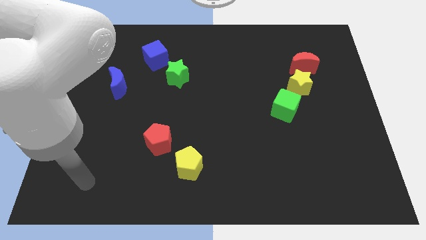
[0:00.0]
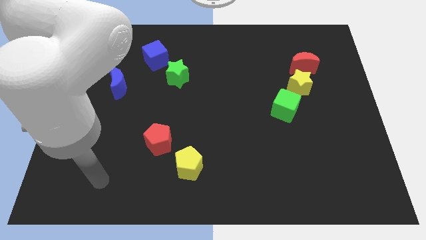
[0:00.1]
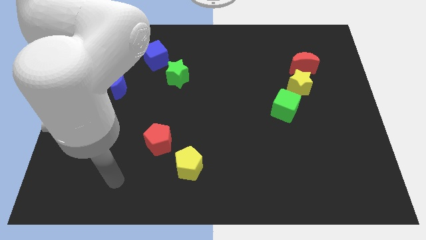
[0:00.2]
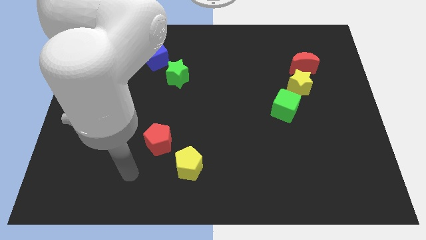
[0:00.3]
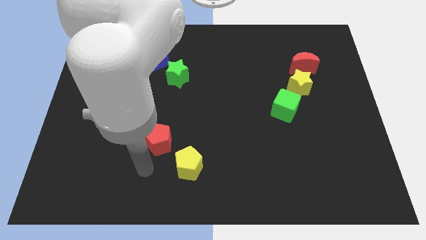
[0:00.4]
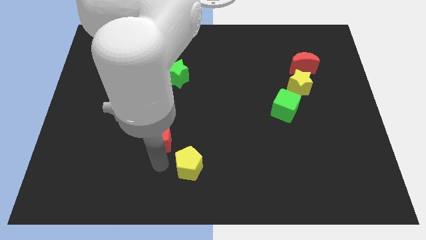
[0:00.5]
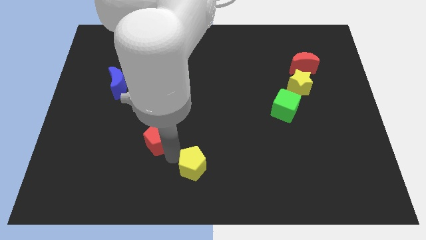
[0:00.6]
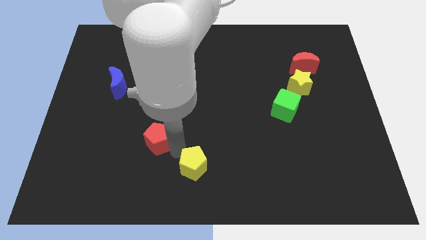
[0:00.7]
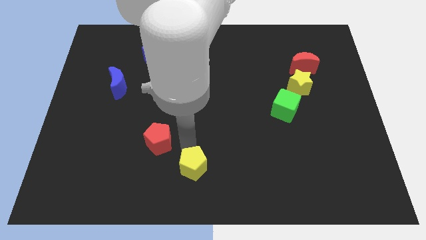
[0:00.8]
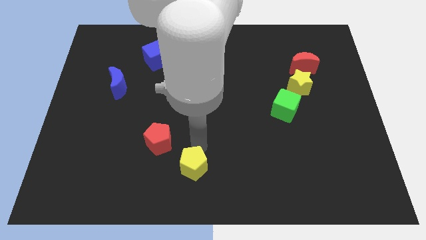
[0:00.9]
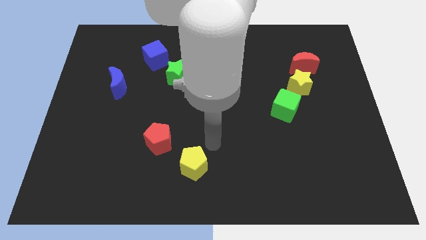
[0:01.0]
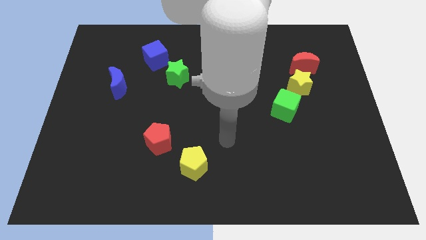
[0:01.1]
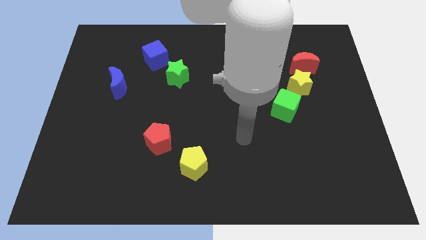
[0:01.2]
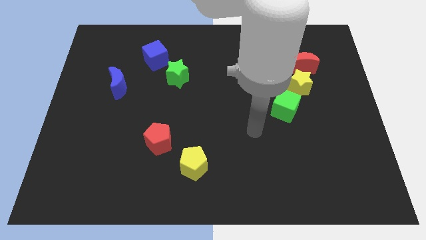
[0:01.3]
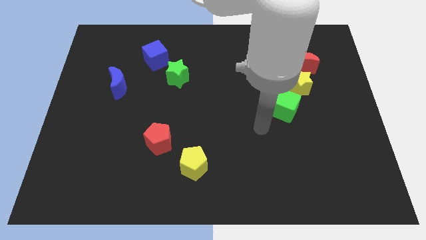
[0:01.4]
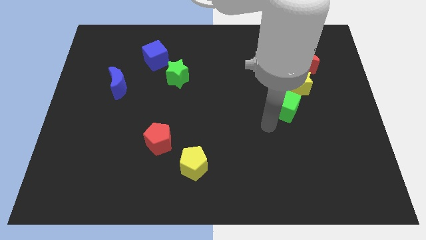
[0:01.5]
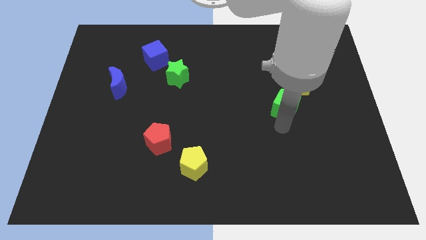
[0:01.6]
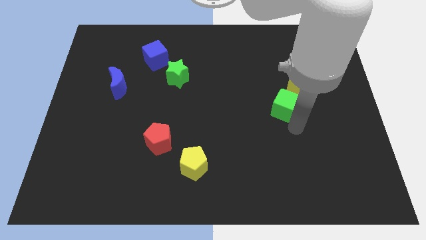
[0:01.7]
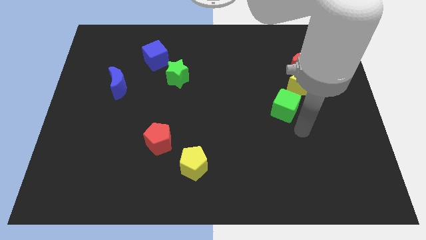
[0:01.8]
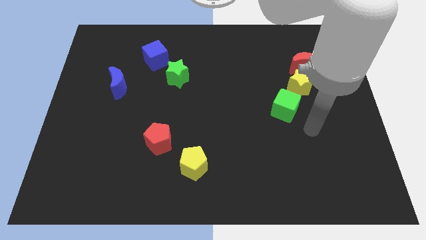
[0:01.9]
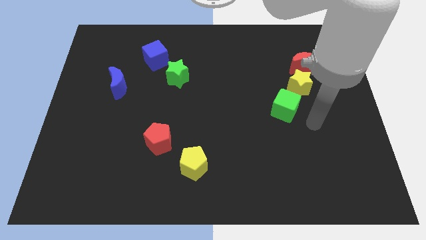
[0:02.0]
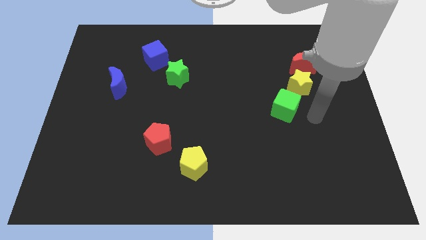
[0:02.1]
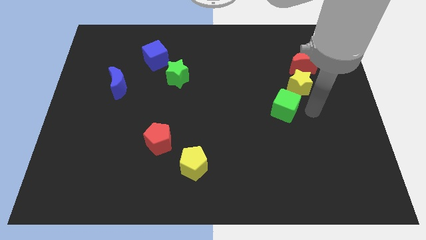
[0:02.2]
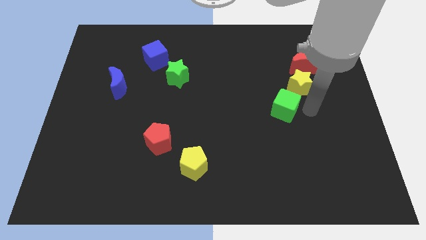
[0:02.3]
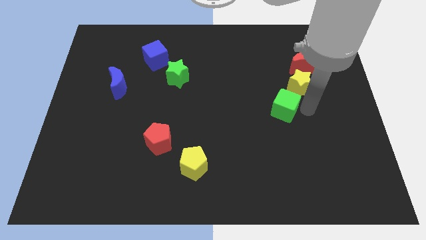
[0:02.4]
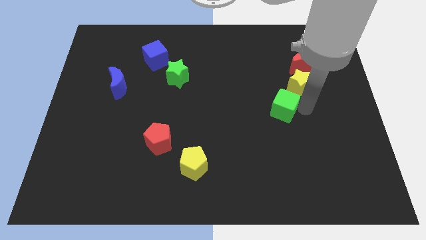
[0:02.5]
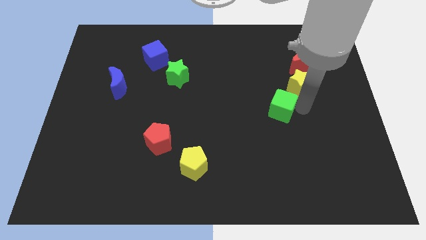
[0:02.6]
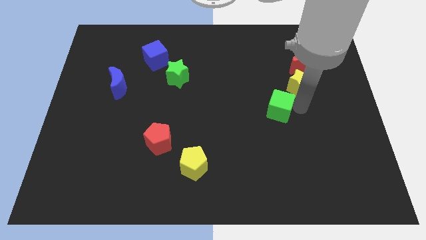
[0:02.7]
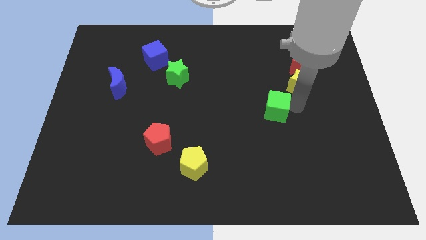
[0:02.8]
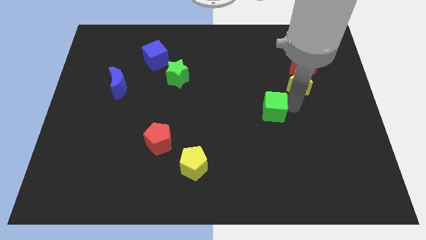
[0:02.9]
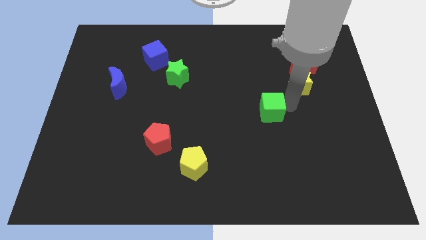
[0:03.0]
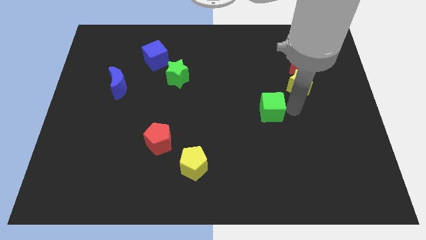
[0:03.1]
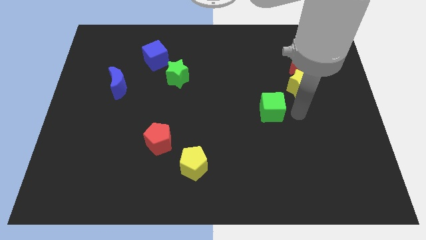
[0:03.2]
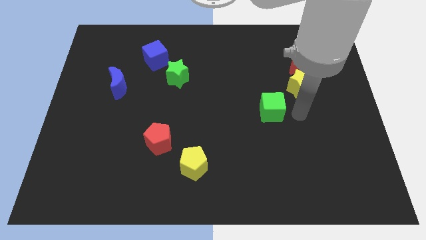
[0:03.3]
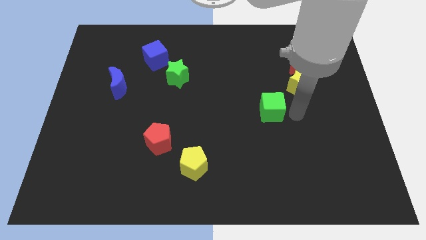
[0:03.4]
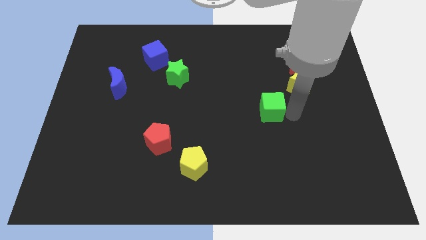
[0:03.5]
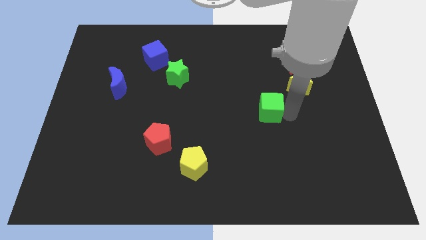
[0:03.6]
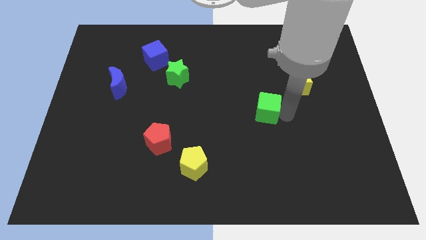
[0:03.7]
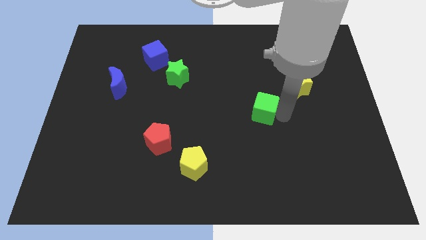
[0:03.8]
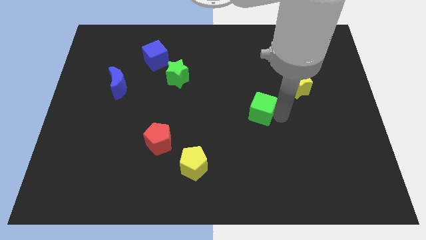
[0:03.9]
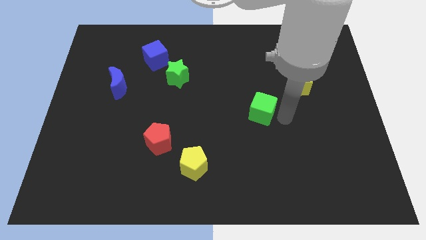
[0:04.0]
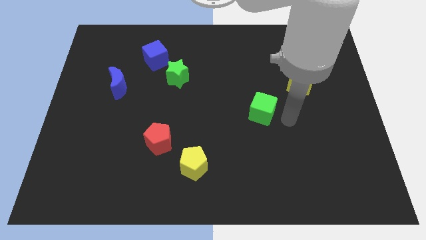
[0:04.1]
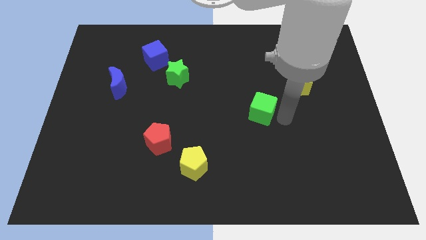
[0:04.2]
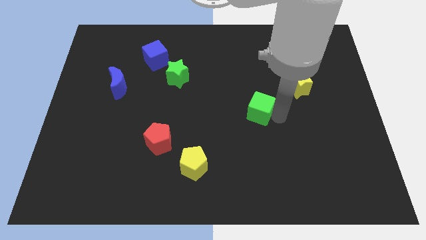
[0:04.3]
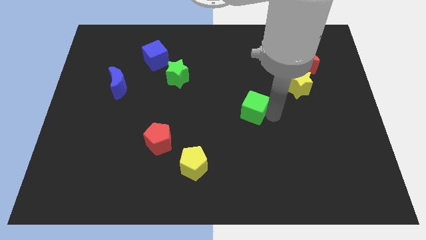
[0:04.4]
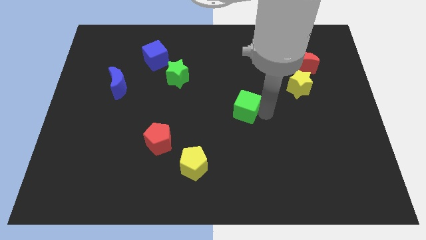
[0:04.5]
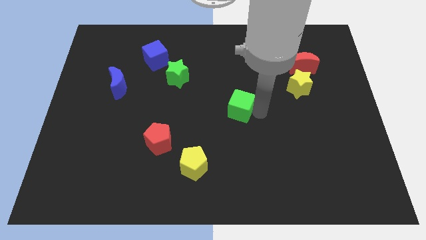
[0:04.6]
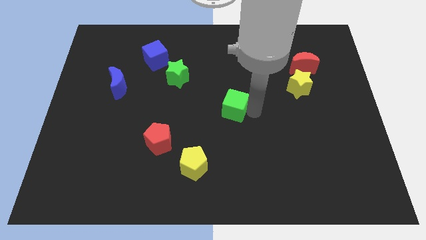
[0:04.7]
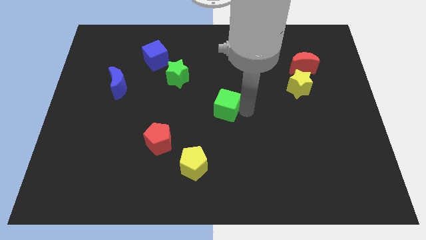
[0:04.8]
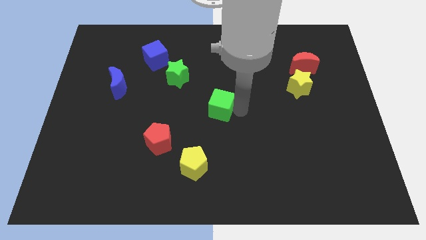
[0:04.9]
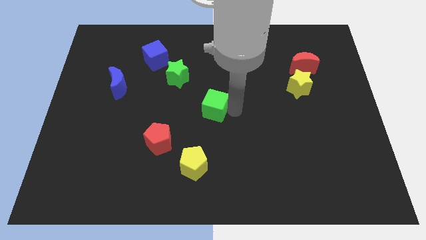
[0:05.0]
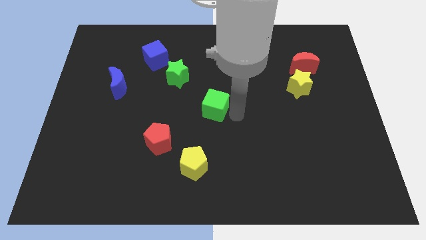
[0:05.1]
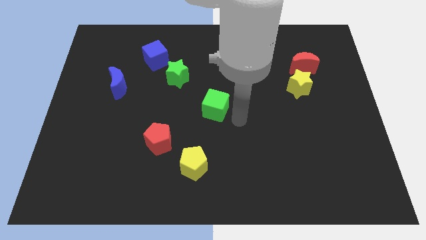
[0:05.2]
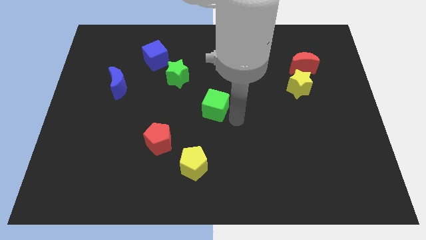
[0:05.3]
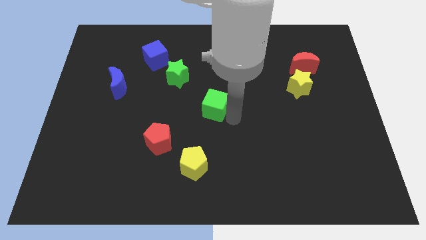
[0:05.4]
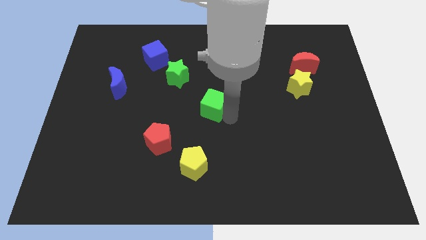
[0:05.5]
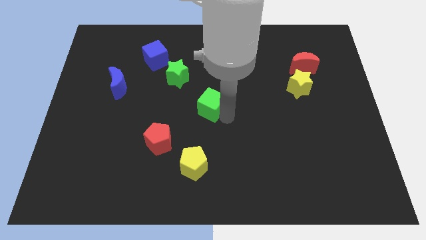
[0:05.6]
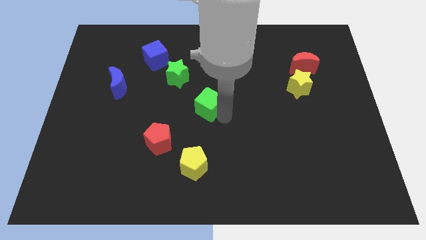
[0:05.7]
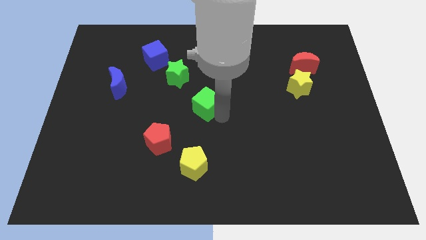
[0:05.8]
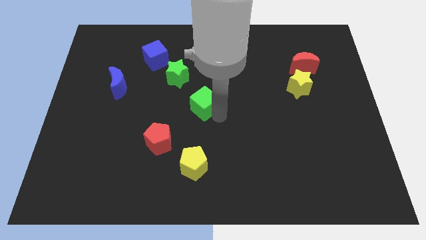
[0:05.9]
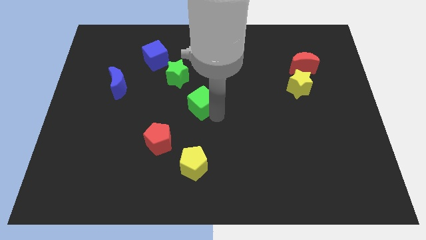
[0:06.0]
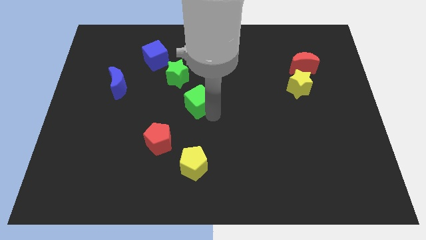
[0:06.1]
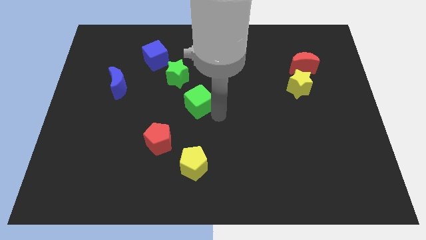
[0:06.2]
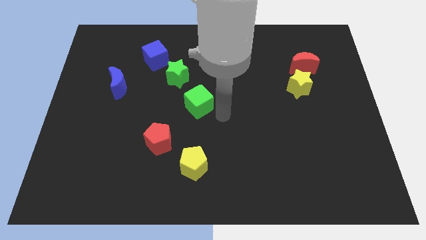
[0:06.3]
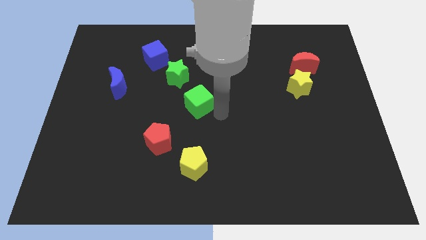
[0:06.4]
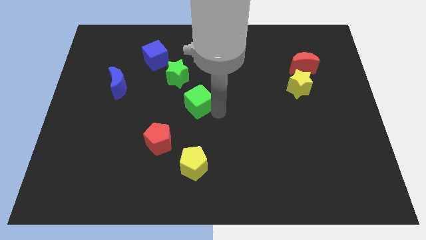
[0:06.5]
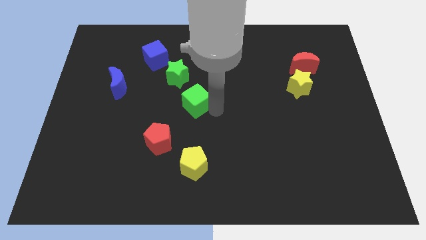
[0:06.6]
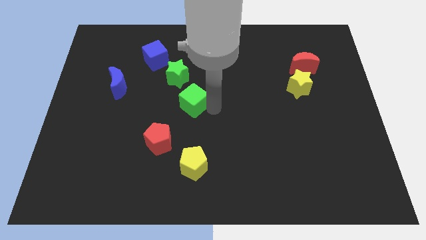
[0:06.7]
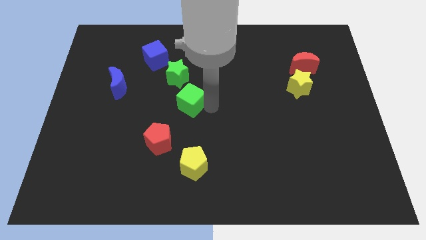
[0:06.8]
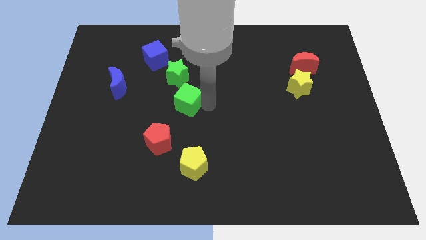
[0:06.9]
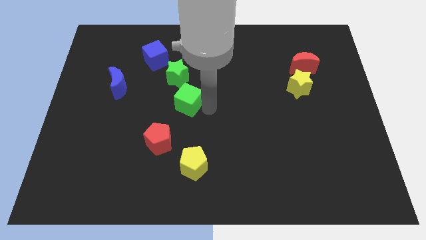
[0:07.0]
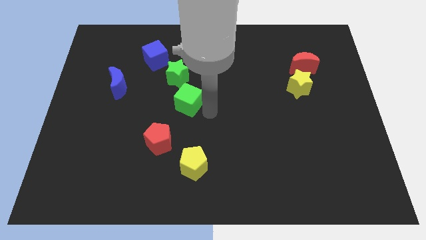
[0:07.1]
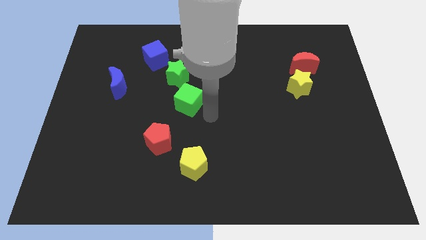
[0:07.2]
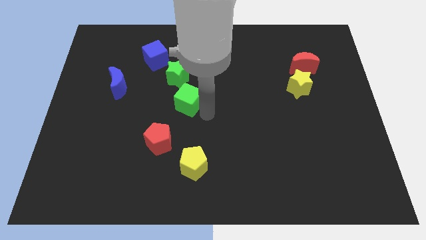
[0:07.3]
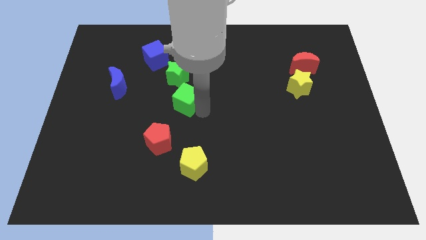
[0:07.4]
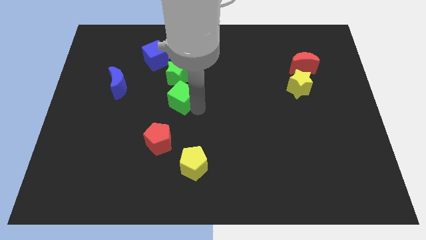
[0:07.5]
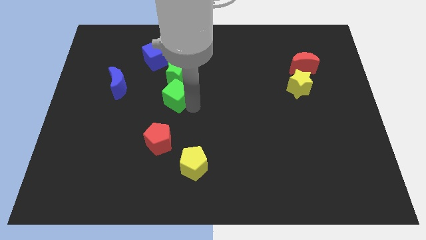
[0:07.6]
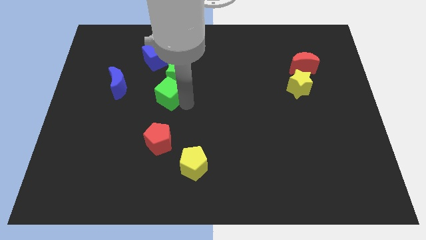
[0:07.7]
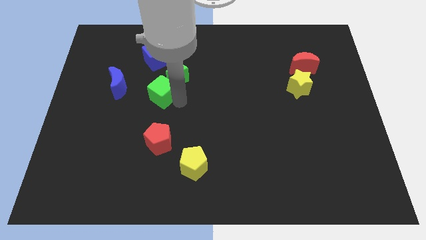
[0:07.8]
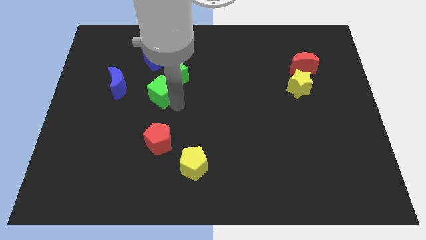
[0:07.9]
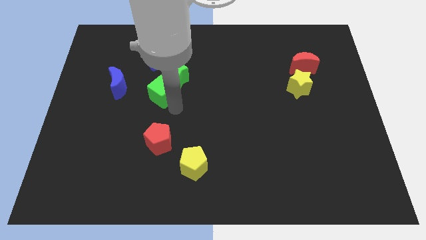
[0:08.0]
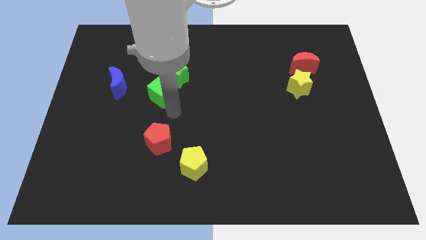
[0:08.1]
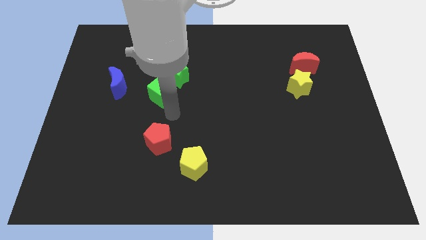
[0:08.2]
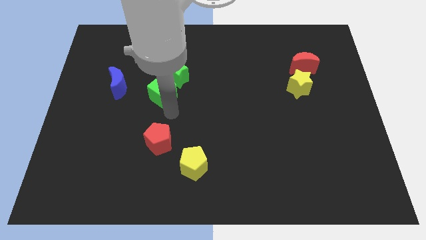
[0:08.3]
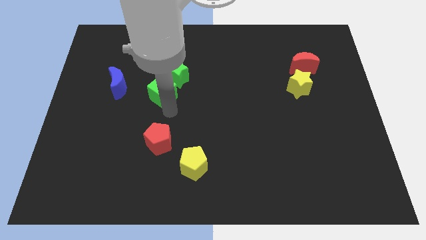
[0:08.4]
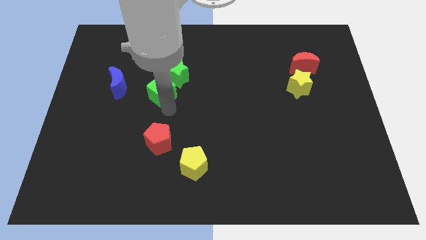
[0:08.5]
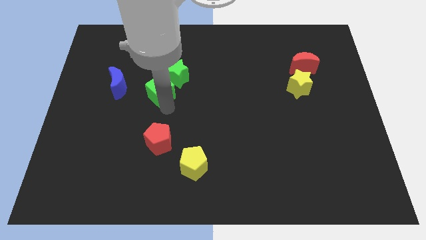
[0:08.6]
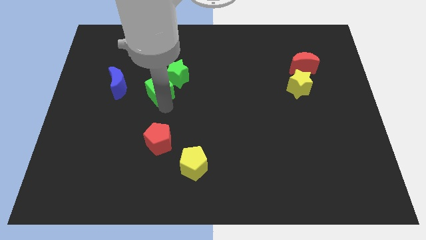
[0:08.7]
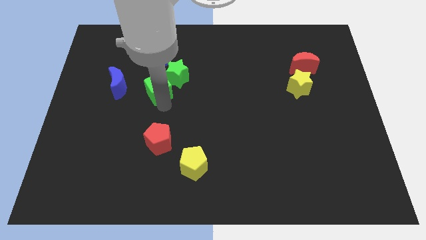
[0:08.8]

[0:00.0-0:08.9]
move the green cube just left of the green star
